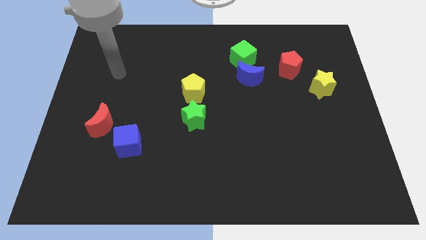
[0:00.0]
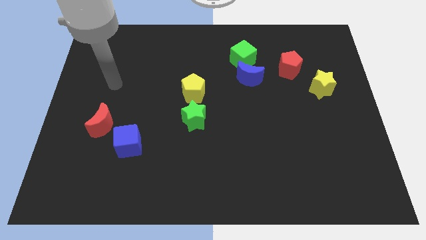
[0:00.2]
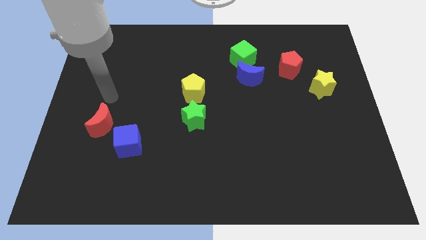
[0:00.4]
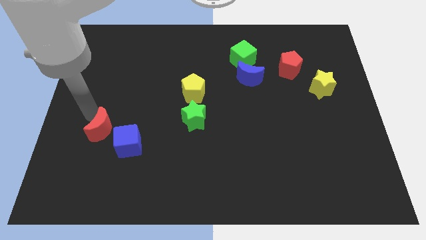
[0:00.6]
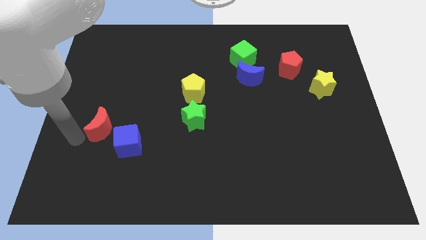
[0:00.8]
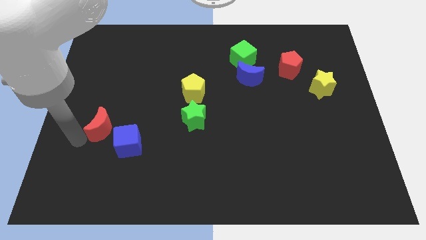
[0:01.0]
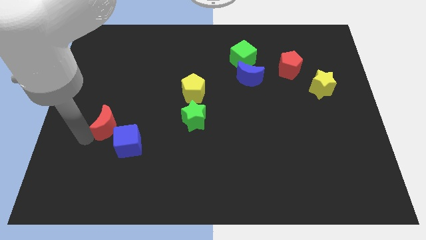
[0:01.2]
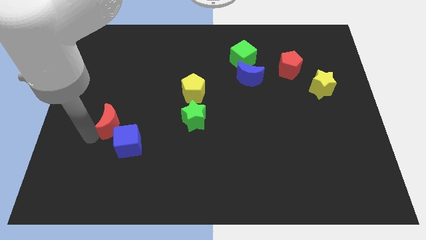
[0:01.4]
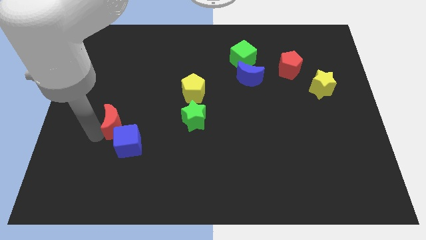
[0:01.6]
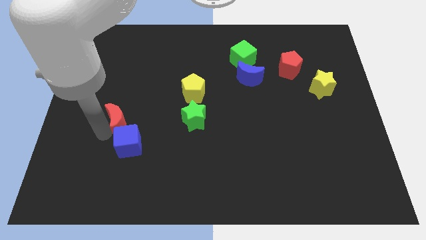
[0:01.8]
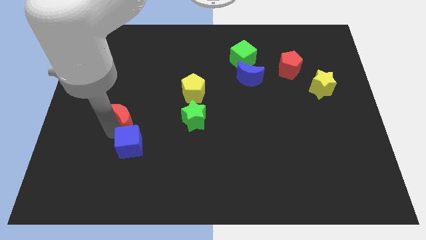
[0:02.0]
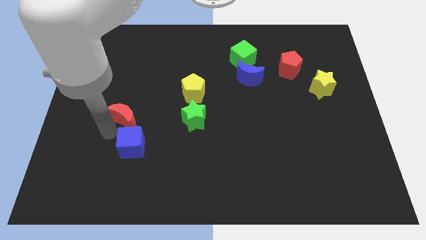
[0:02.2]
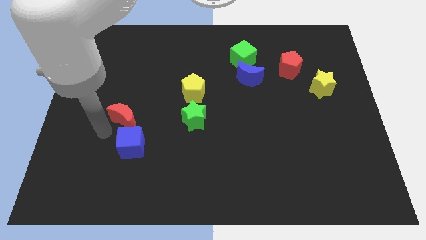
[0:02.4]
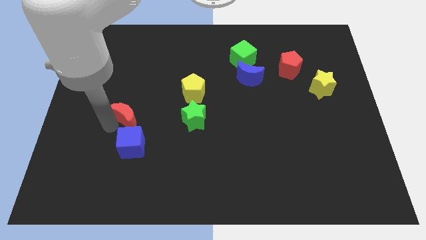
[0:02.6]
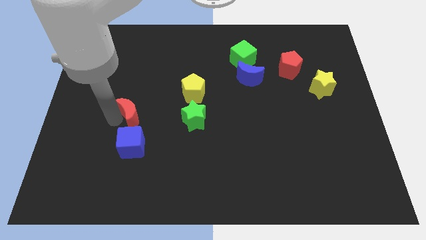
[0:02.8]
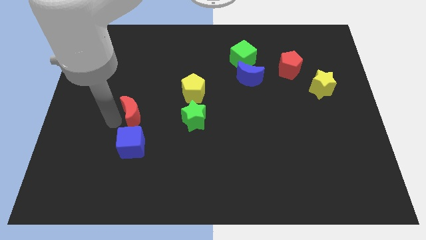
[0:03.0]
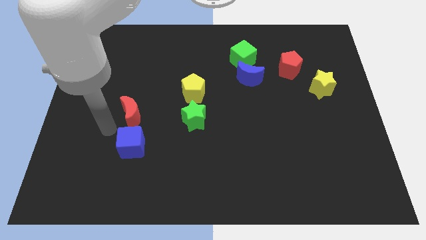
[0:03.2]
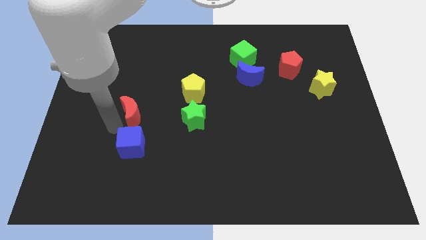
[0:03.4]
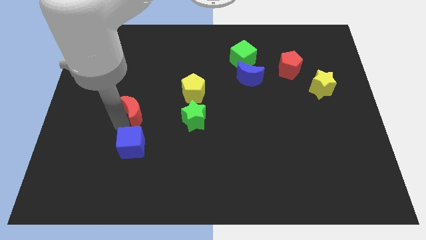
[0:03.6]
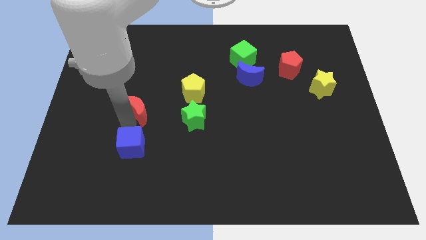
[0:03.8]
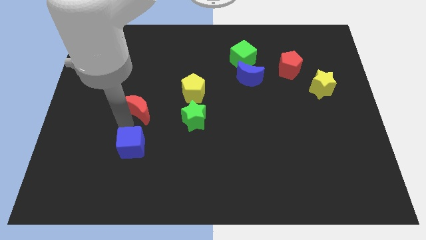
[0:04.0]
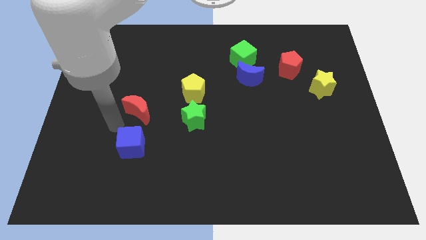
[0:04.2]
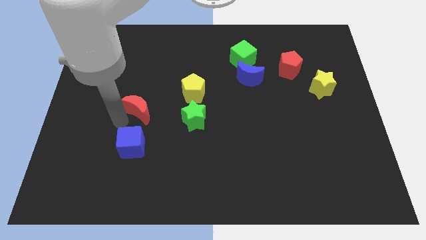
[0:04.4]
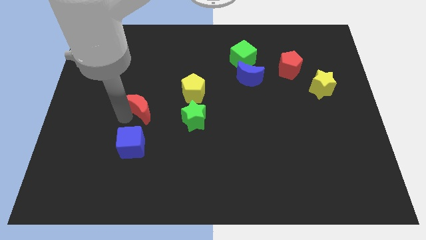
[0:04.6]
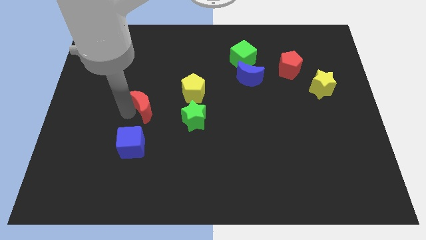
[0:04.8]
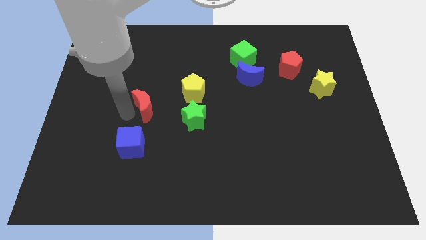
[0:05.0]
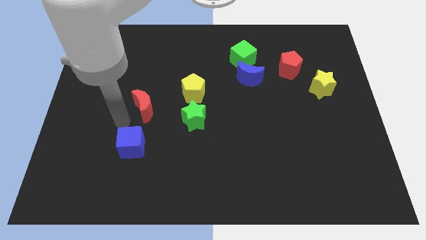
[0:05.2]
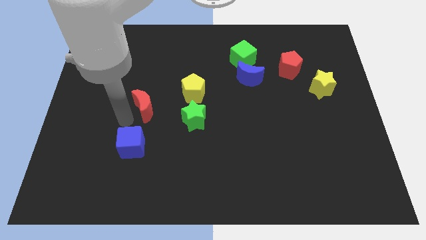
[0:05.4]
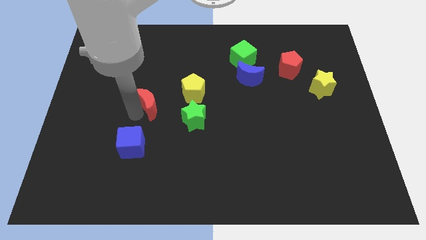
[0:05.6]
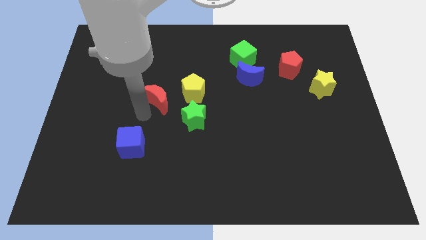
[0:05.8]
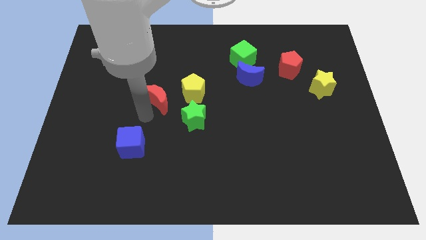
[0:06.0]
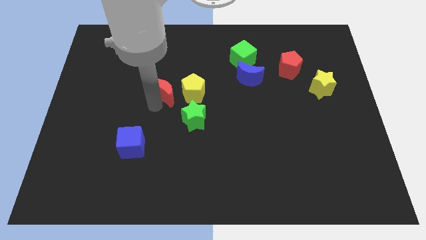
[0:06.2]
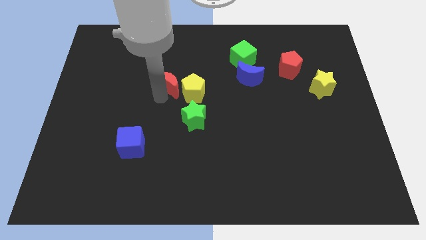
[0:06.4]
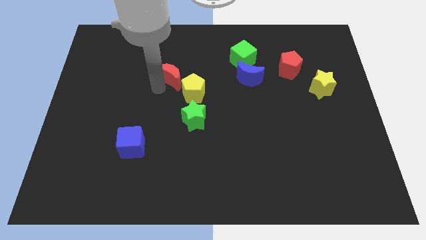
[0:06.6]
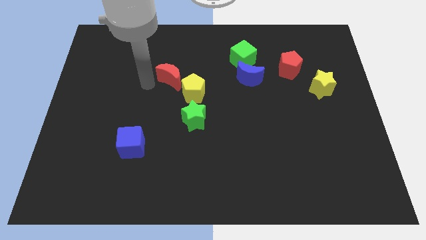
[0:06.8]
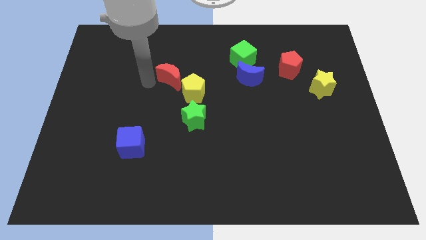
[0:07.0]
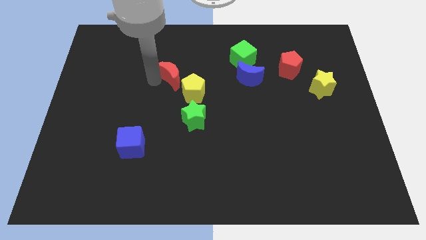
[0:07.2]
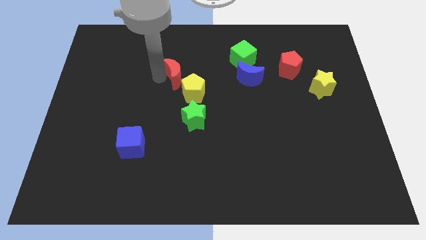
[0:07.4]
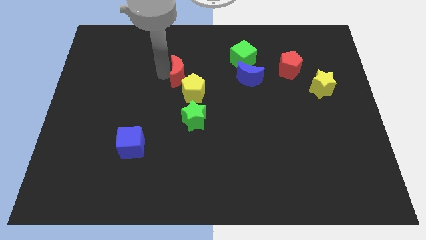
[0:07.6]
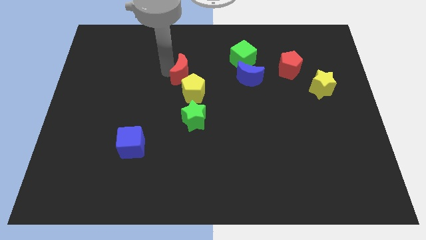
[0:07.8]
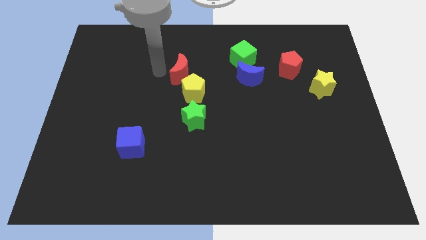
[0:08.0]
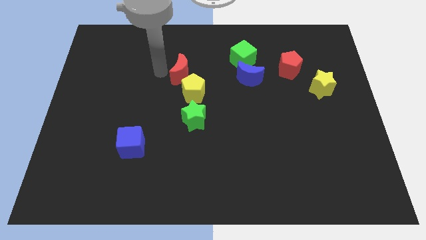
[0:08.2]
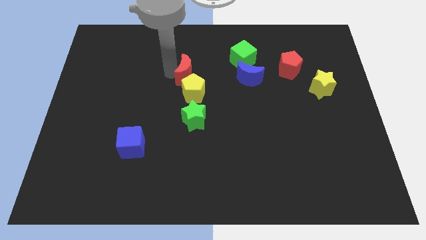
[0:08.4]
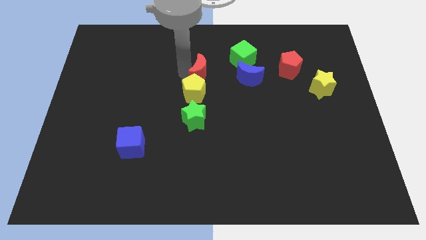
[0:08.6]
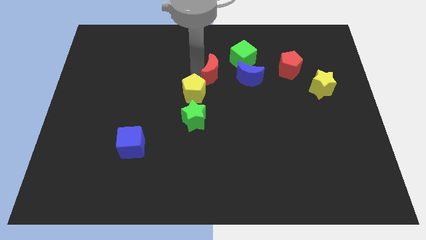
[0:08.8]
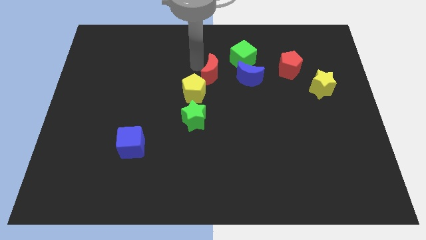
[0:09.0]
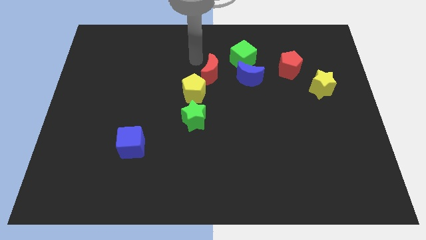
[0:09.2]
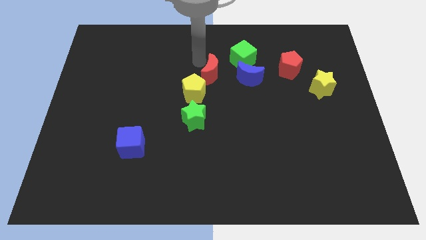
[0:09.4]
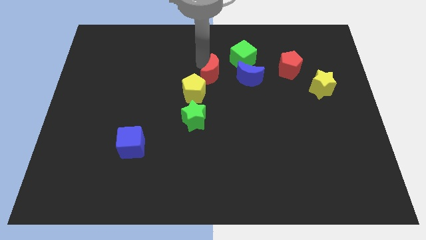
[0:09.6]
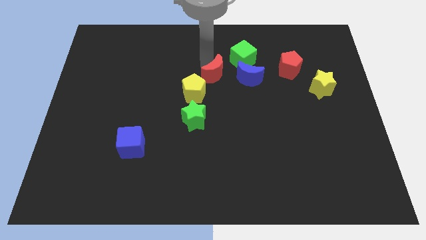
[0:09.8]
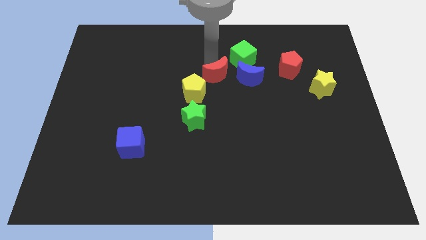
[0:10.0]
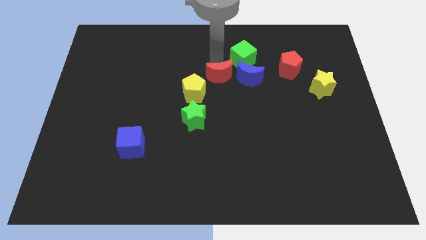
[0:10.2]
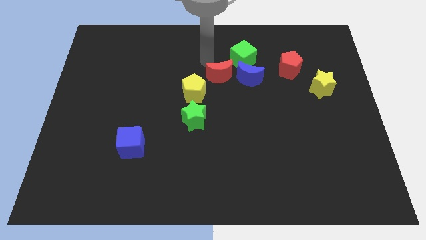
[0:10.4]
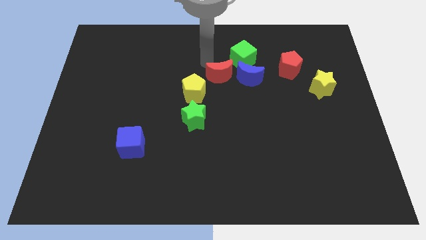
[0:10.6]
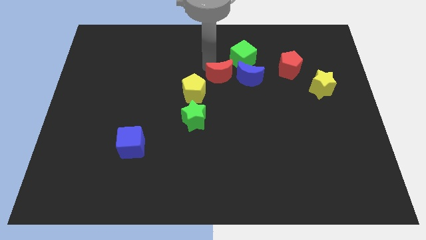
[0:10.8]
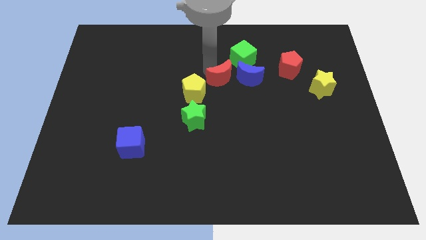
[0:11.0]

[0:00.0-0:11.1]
push the red moon to the right side of the yellow pentagon

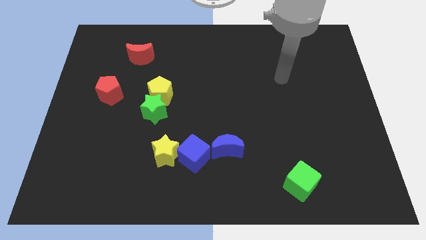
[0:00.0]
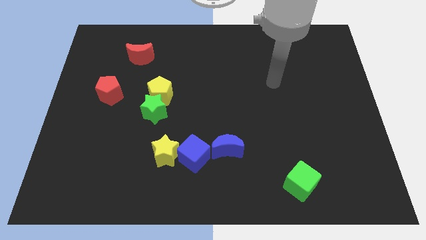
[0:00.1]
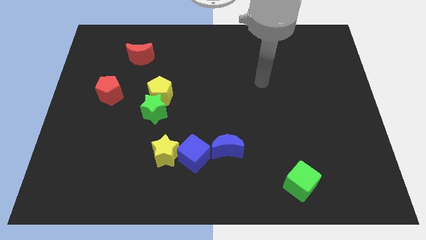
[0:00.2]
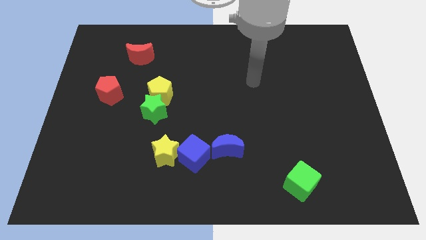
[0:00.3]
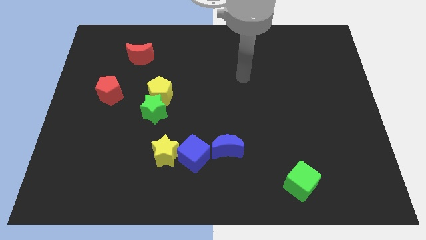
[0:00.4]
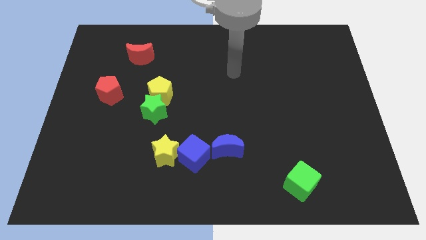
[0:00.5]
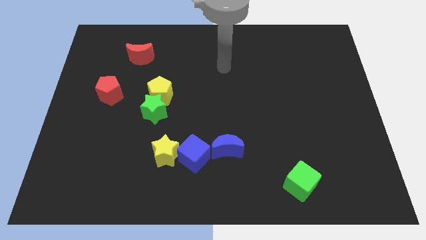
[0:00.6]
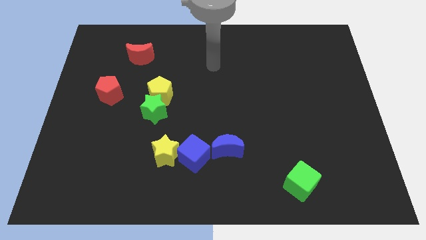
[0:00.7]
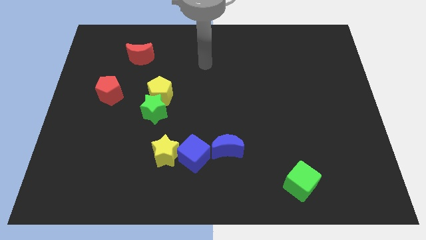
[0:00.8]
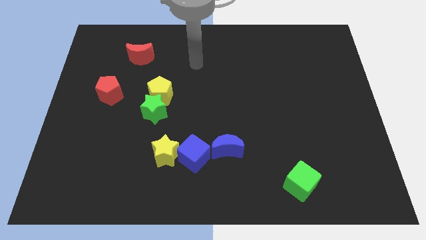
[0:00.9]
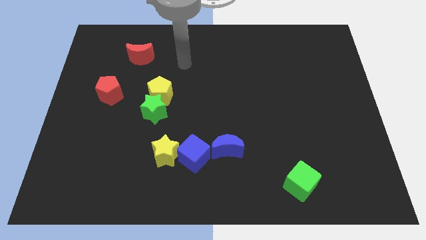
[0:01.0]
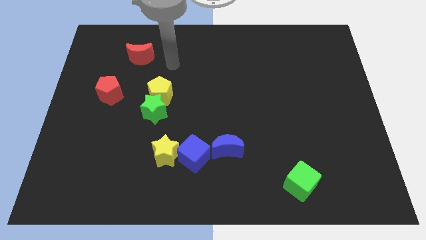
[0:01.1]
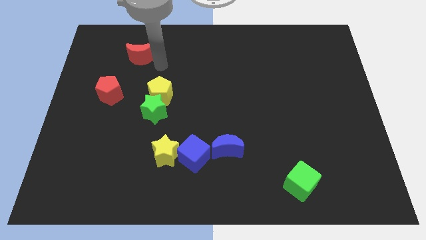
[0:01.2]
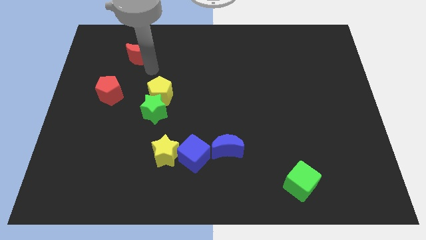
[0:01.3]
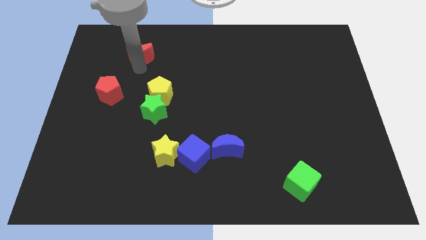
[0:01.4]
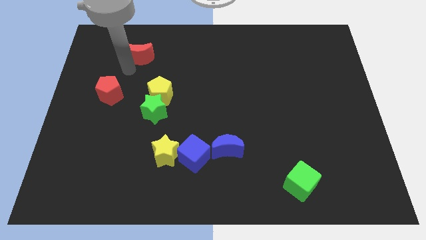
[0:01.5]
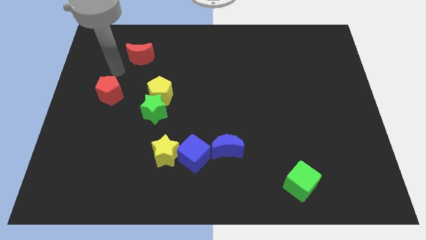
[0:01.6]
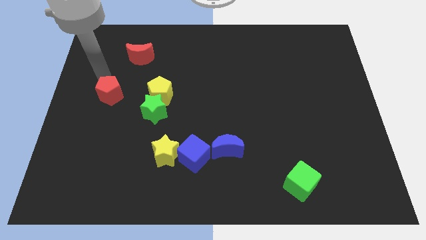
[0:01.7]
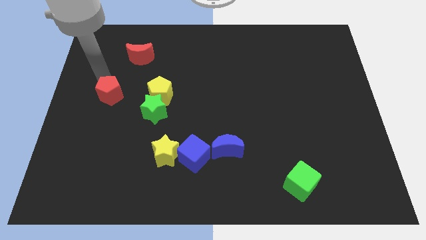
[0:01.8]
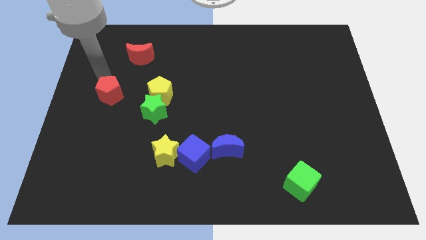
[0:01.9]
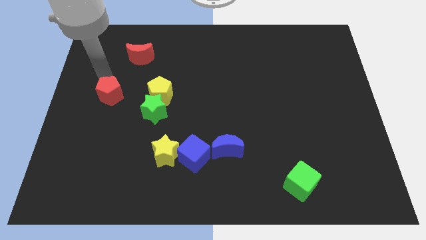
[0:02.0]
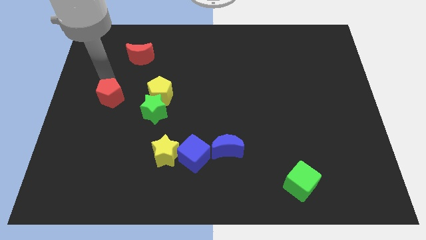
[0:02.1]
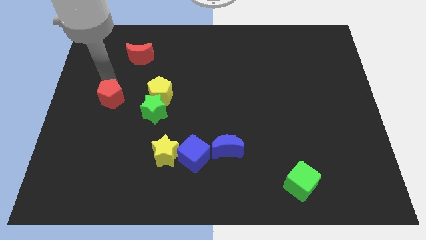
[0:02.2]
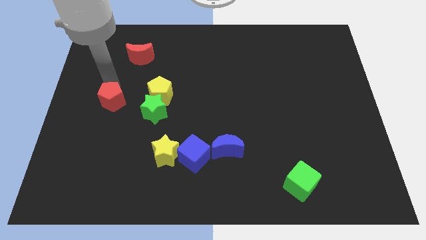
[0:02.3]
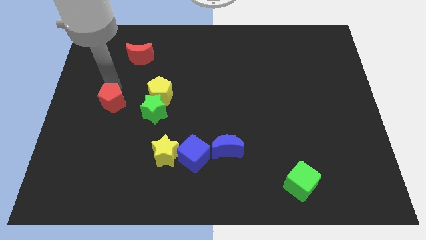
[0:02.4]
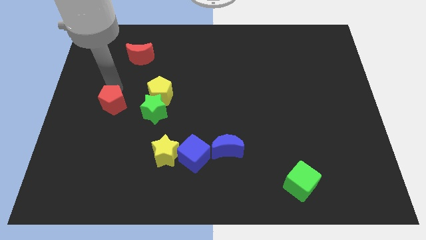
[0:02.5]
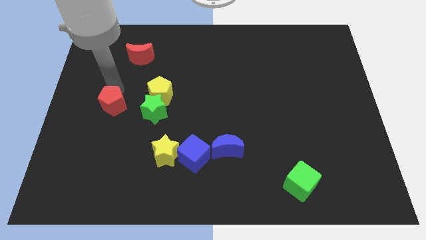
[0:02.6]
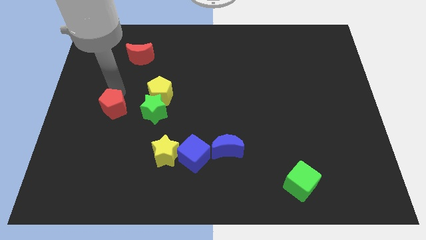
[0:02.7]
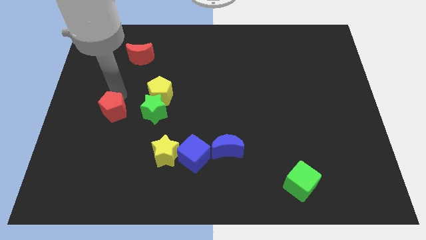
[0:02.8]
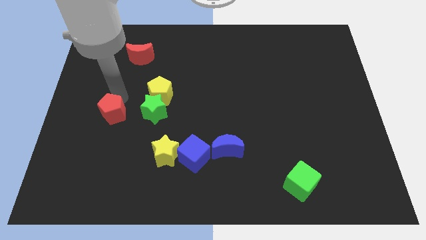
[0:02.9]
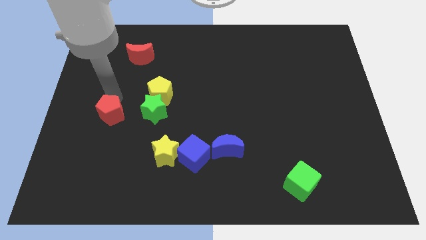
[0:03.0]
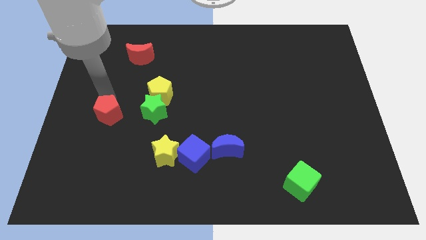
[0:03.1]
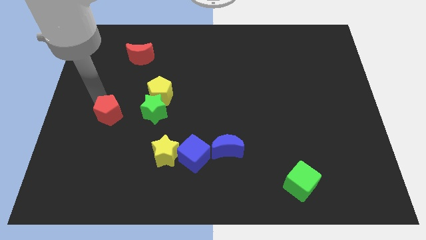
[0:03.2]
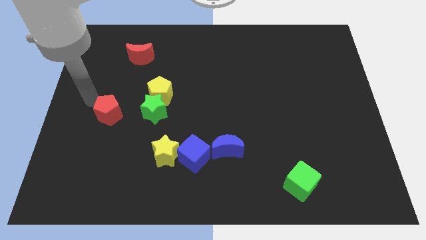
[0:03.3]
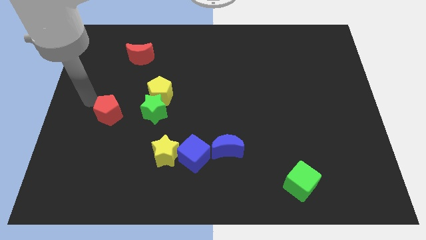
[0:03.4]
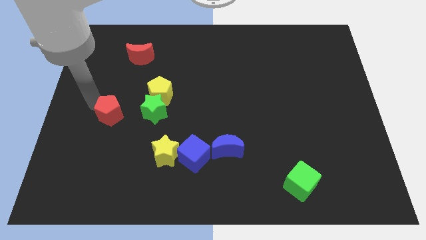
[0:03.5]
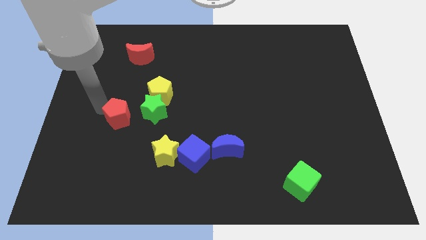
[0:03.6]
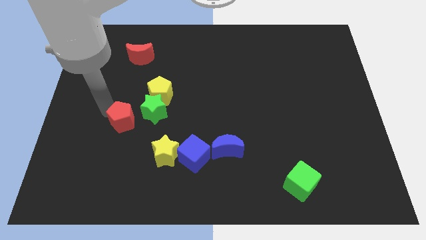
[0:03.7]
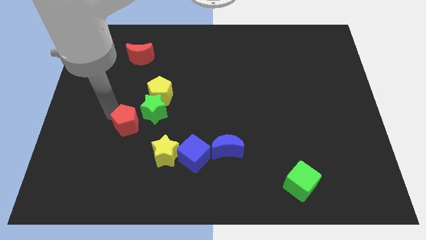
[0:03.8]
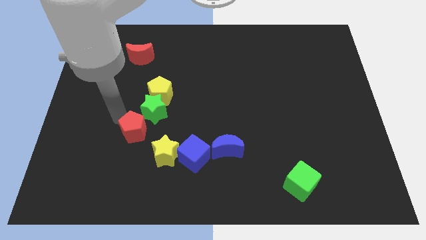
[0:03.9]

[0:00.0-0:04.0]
put the red pentagon to the bottom side of the green star
